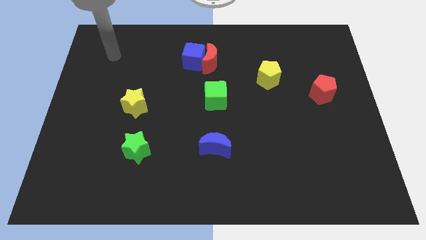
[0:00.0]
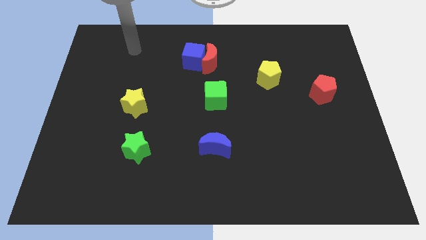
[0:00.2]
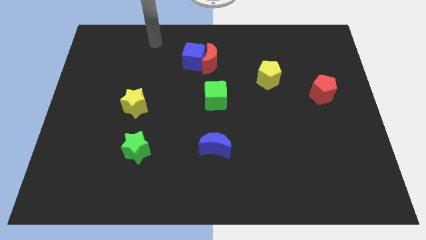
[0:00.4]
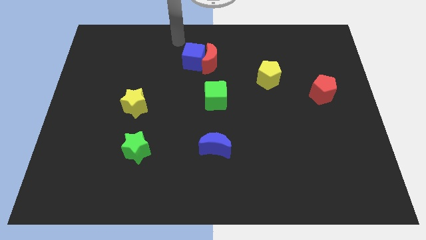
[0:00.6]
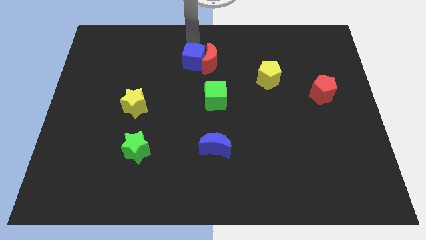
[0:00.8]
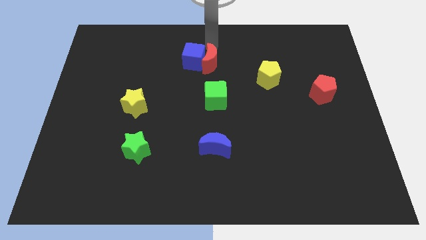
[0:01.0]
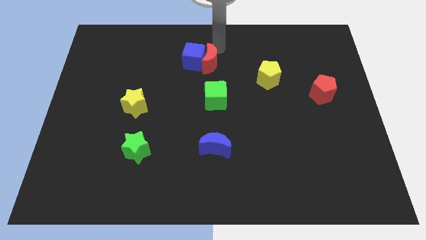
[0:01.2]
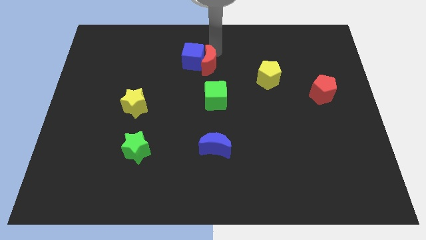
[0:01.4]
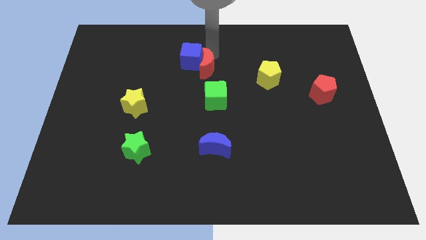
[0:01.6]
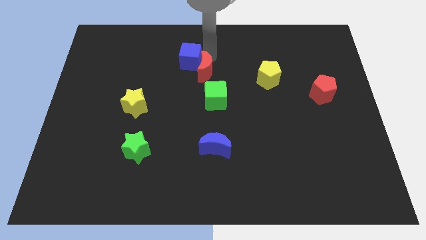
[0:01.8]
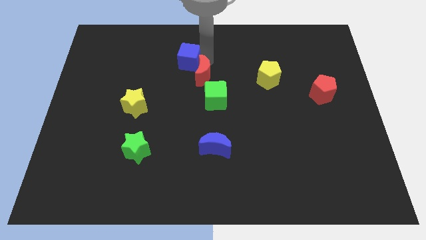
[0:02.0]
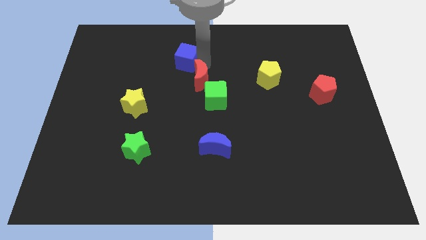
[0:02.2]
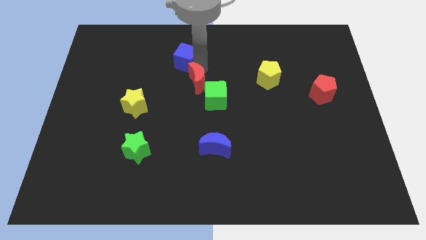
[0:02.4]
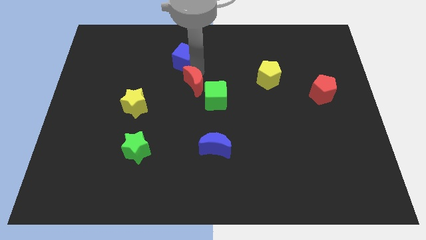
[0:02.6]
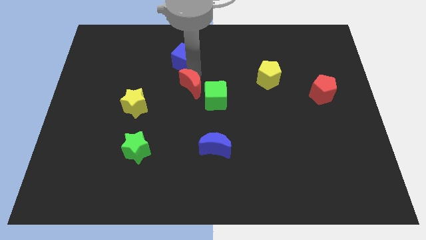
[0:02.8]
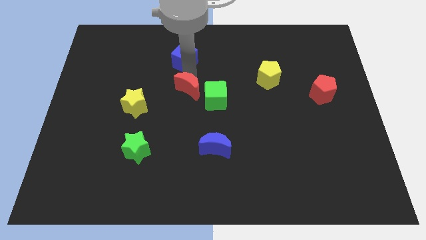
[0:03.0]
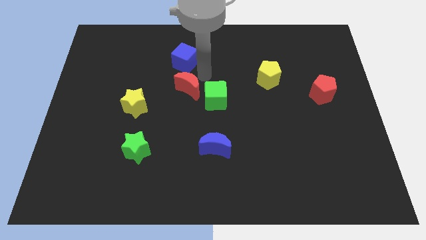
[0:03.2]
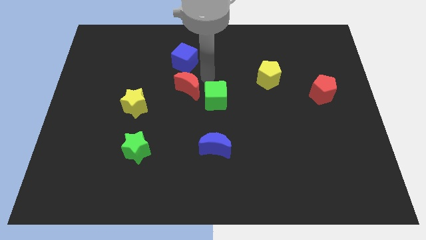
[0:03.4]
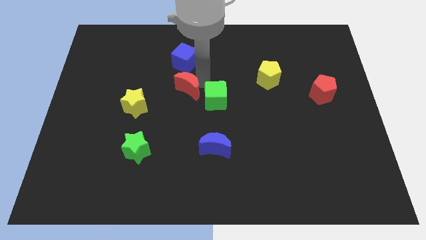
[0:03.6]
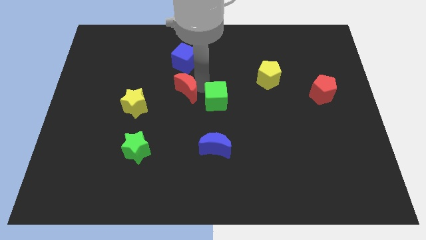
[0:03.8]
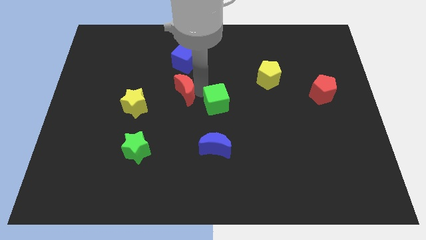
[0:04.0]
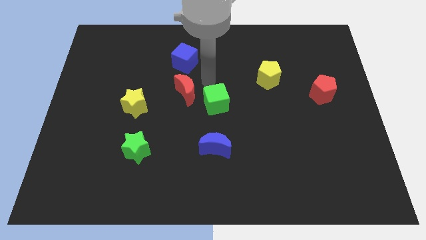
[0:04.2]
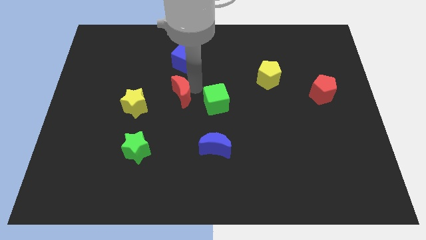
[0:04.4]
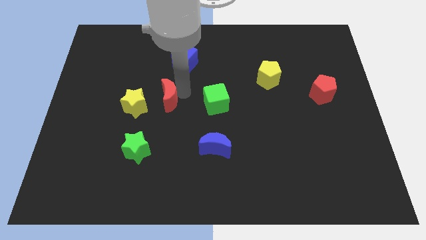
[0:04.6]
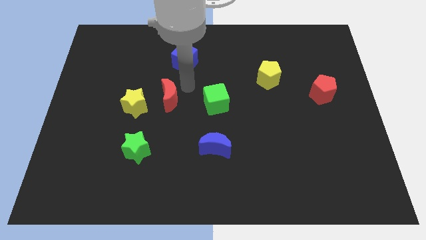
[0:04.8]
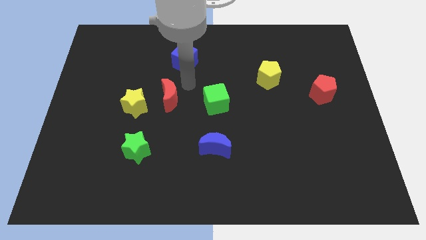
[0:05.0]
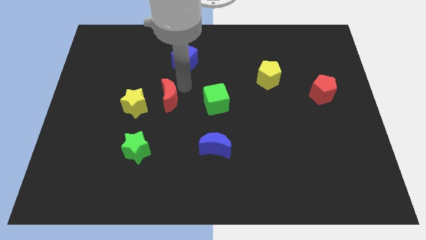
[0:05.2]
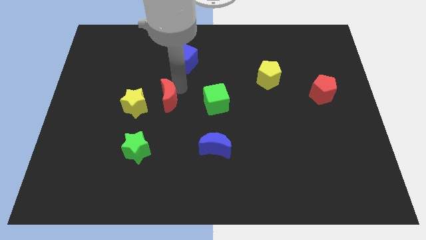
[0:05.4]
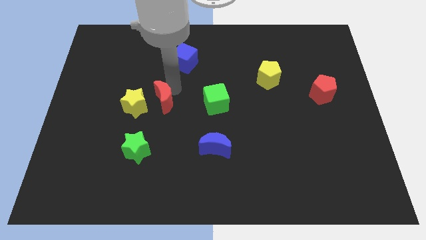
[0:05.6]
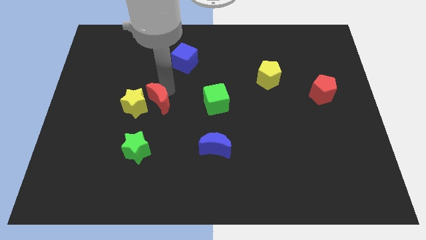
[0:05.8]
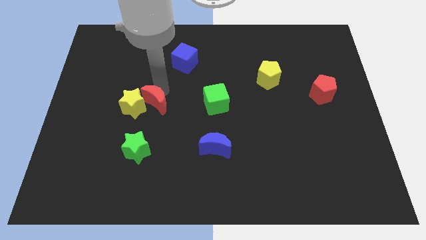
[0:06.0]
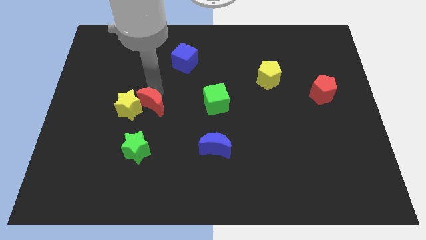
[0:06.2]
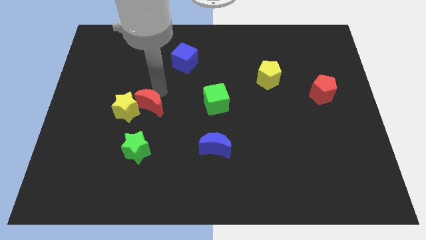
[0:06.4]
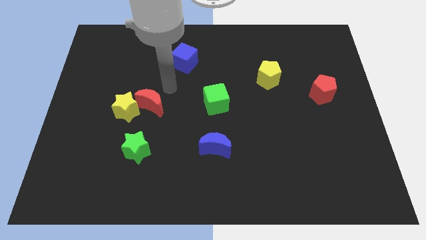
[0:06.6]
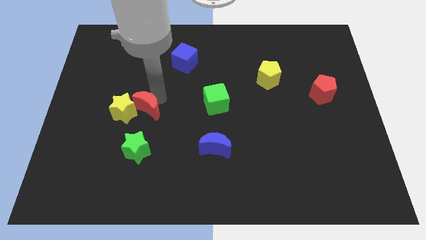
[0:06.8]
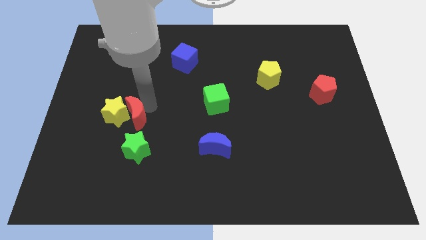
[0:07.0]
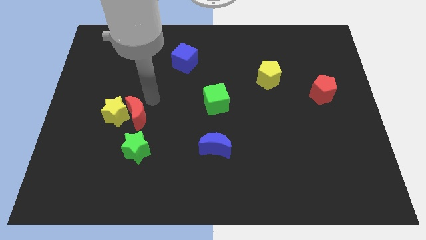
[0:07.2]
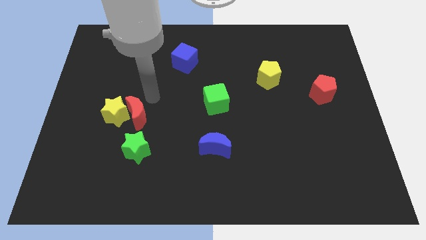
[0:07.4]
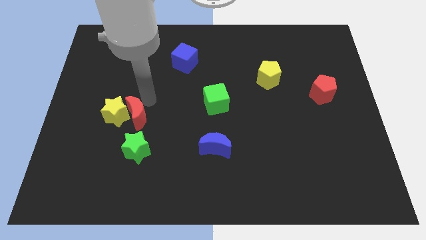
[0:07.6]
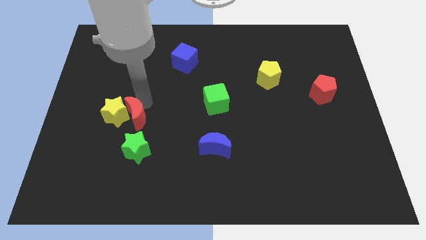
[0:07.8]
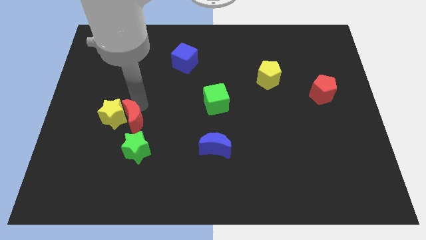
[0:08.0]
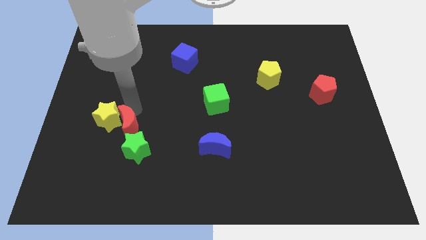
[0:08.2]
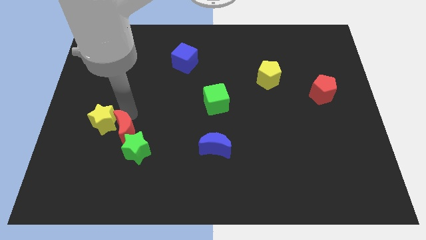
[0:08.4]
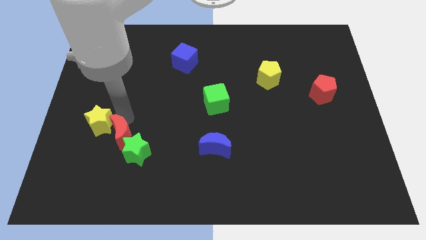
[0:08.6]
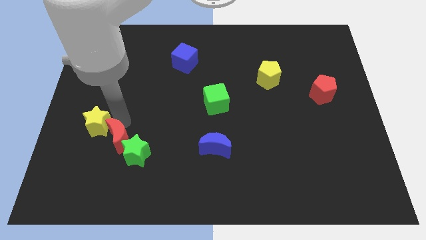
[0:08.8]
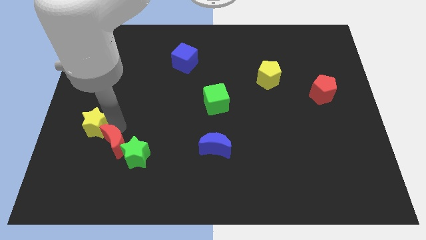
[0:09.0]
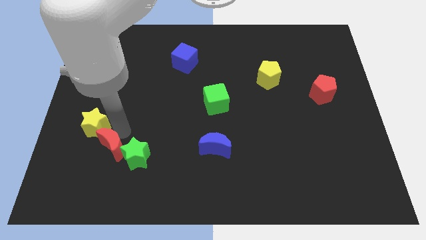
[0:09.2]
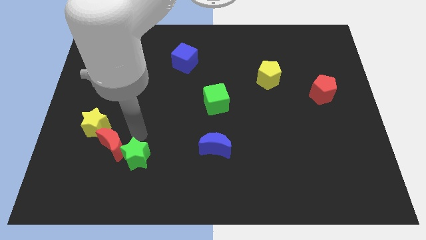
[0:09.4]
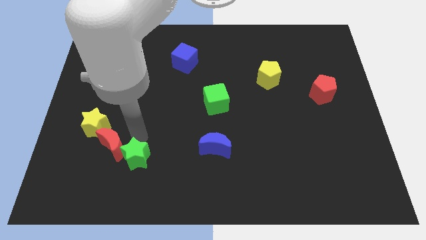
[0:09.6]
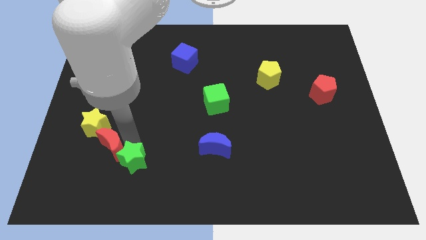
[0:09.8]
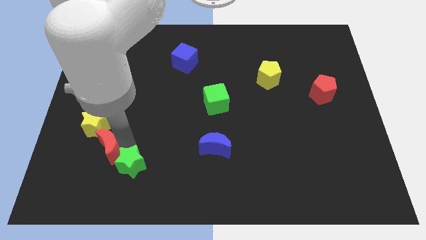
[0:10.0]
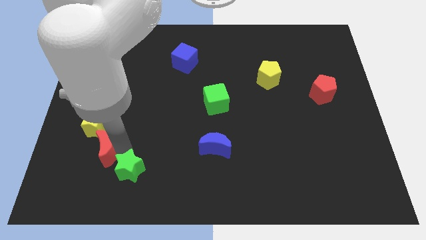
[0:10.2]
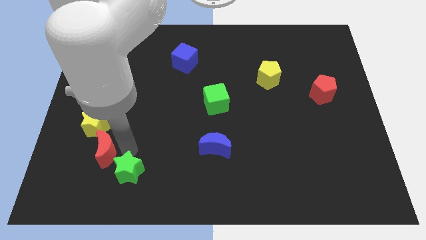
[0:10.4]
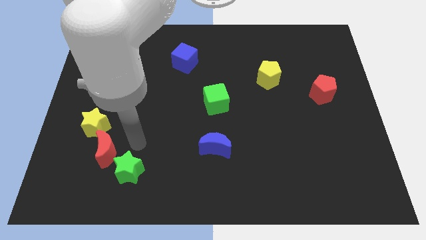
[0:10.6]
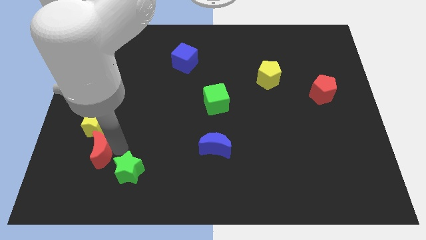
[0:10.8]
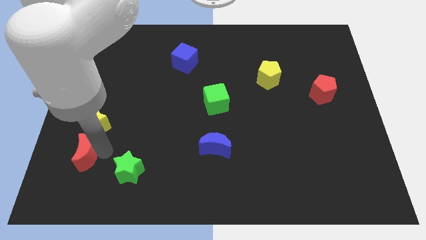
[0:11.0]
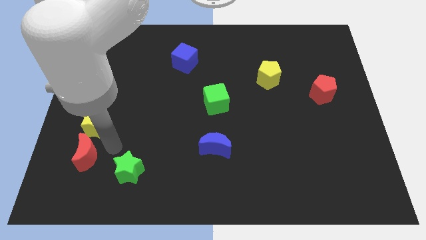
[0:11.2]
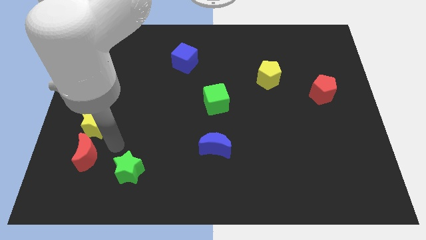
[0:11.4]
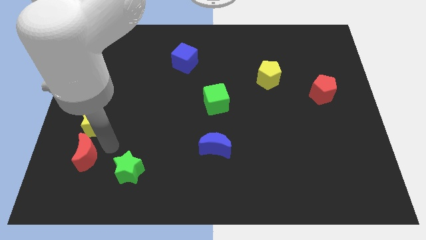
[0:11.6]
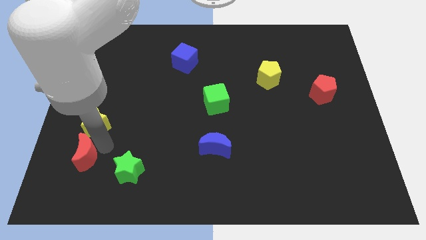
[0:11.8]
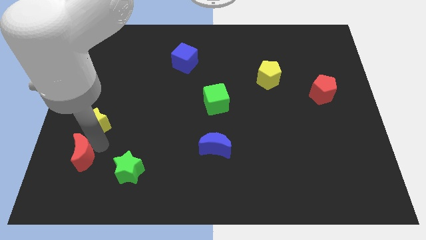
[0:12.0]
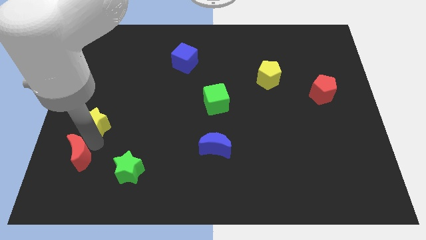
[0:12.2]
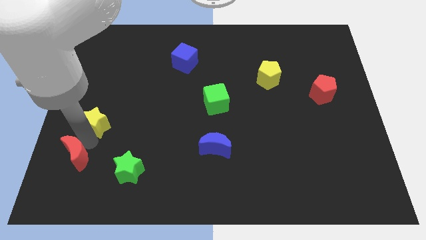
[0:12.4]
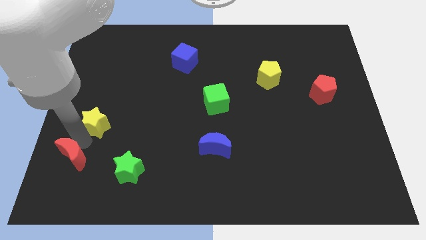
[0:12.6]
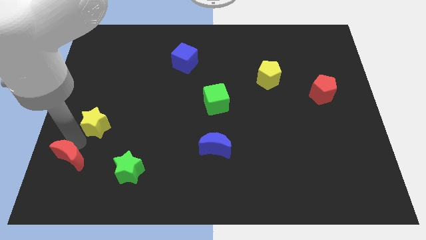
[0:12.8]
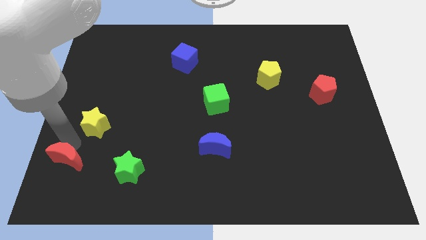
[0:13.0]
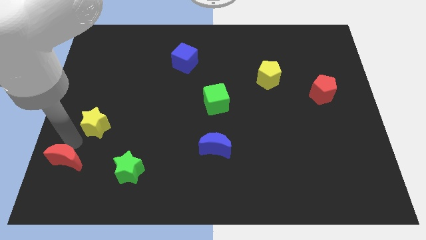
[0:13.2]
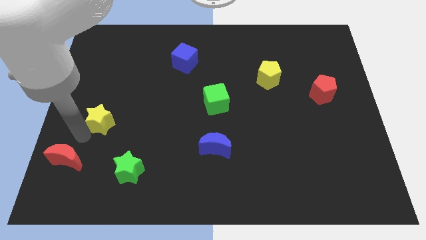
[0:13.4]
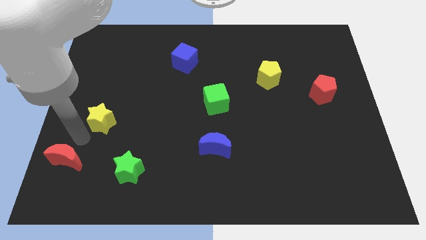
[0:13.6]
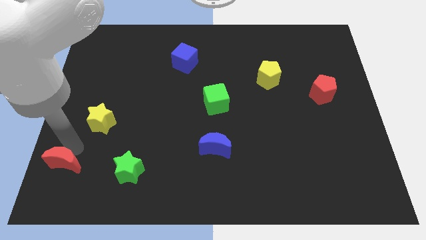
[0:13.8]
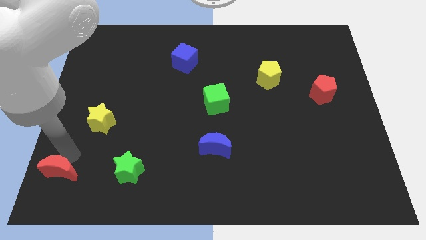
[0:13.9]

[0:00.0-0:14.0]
move the red moon to the bottom left of the board
